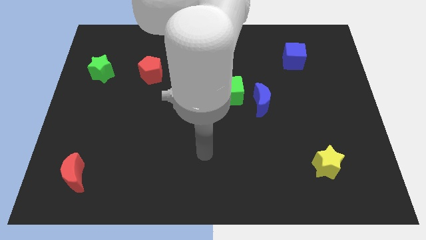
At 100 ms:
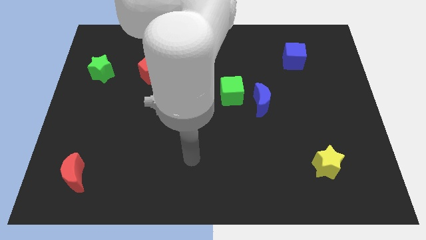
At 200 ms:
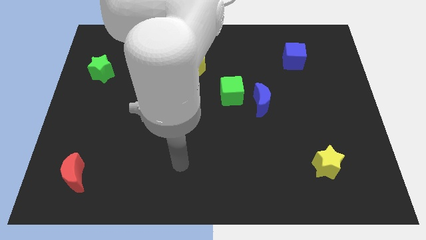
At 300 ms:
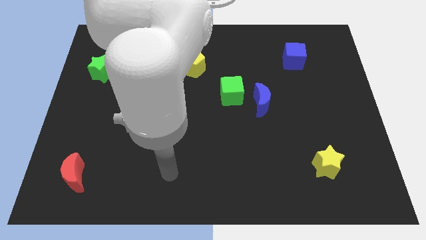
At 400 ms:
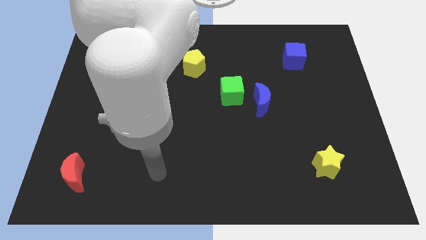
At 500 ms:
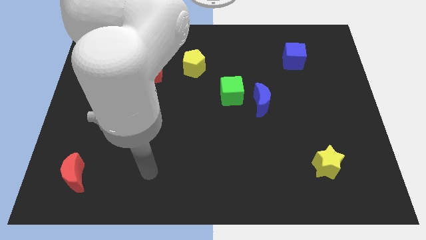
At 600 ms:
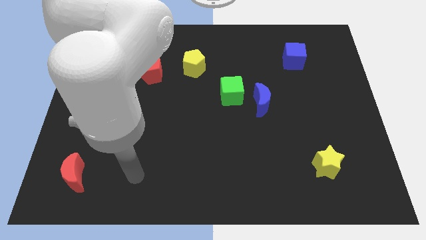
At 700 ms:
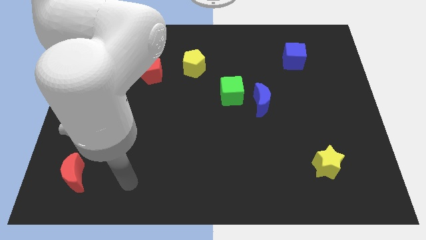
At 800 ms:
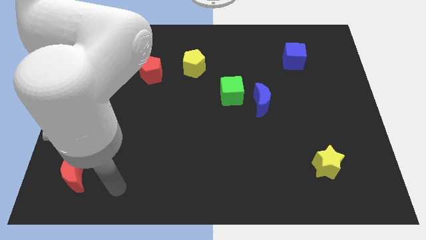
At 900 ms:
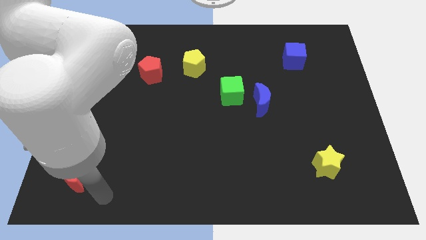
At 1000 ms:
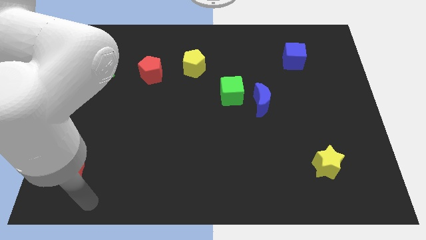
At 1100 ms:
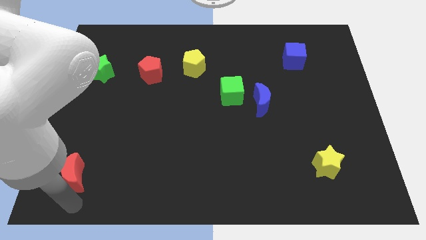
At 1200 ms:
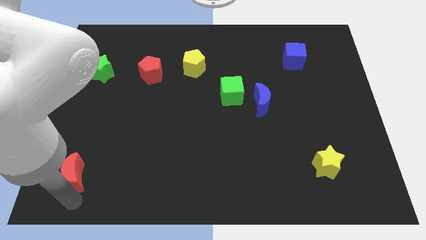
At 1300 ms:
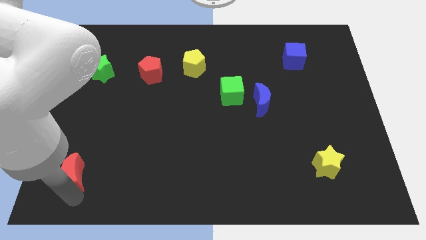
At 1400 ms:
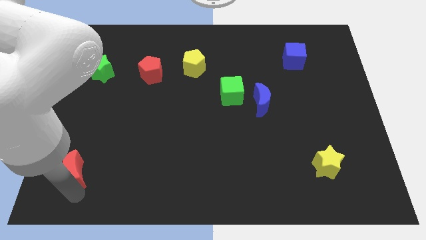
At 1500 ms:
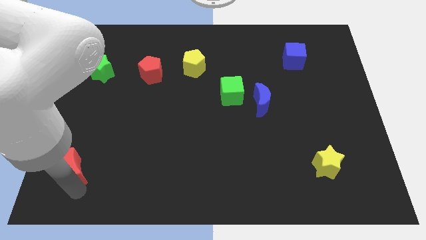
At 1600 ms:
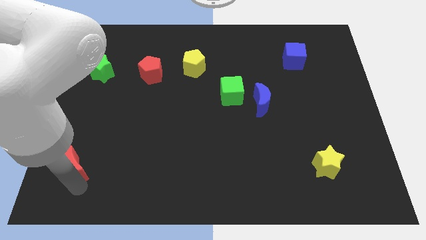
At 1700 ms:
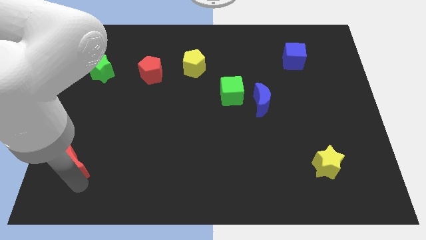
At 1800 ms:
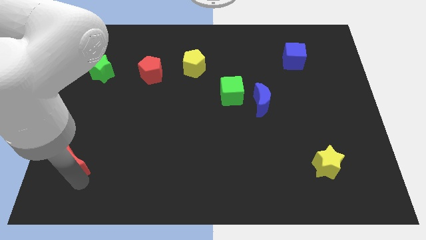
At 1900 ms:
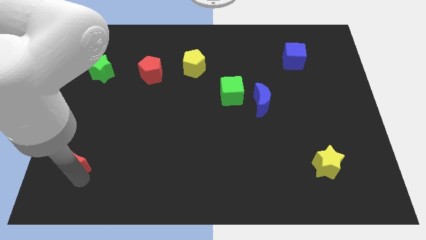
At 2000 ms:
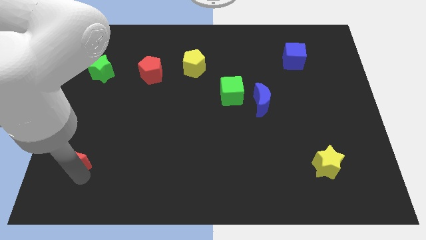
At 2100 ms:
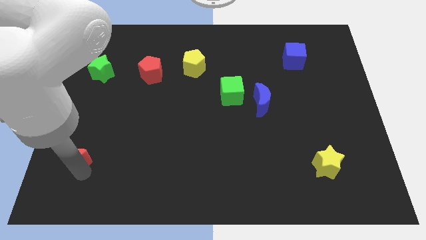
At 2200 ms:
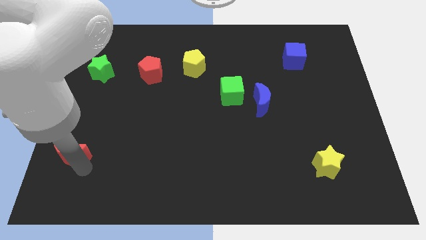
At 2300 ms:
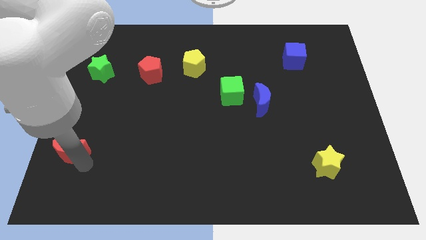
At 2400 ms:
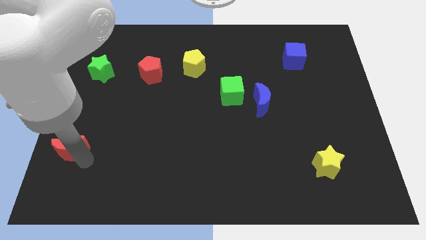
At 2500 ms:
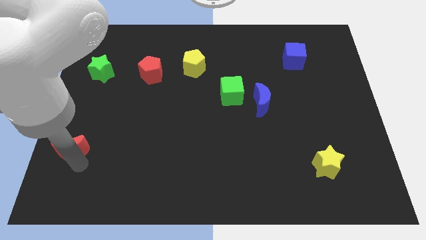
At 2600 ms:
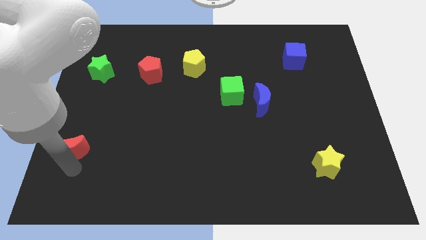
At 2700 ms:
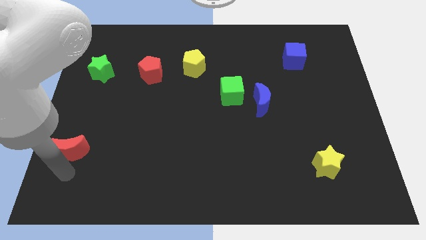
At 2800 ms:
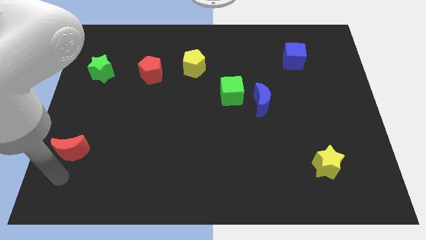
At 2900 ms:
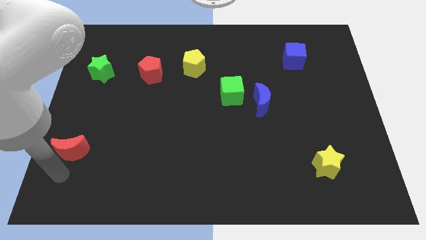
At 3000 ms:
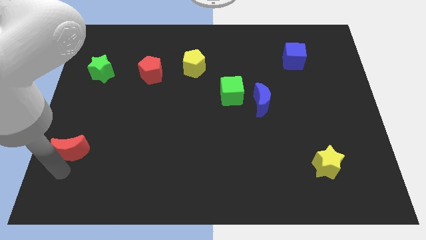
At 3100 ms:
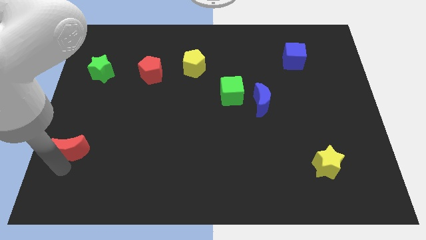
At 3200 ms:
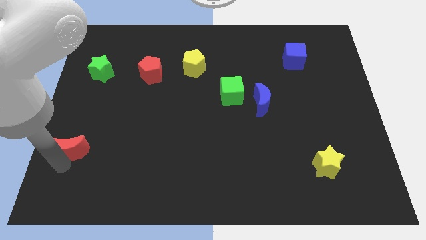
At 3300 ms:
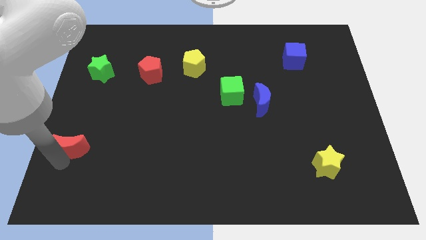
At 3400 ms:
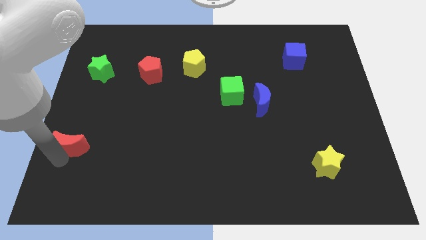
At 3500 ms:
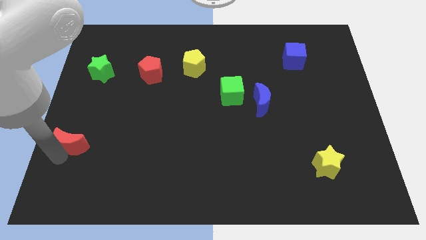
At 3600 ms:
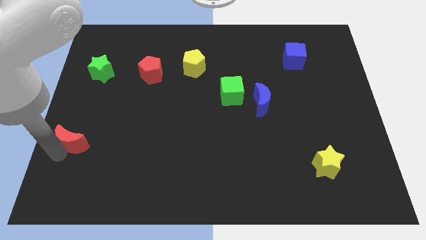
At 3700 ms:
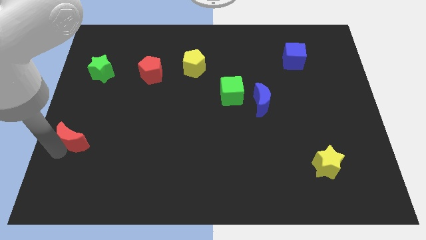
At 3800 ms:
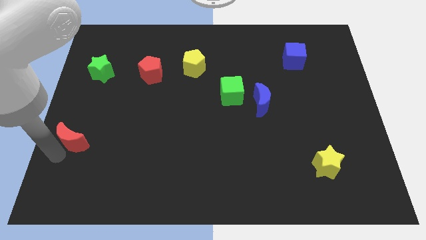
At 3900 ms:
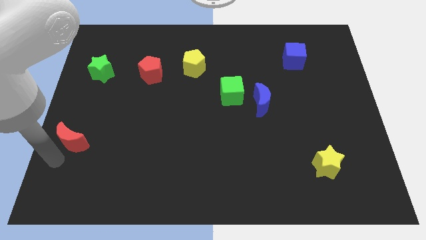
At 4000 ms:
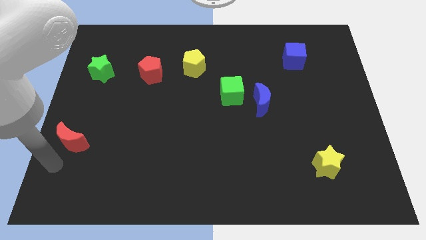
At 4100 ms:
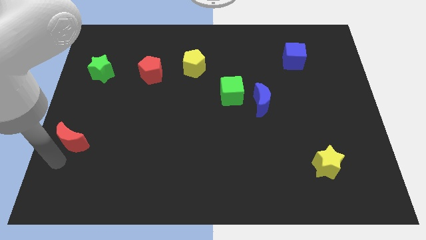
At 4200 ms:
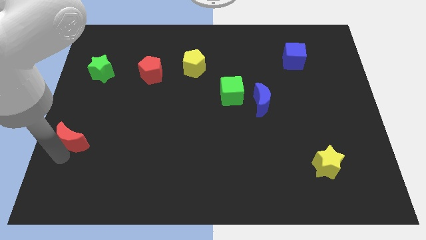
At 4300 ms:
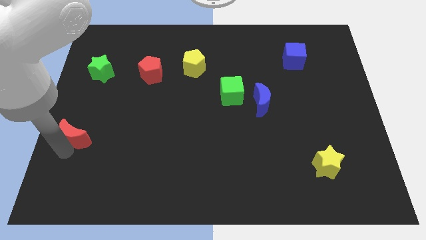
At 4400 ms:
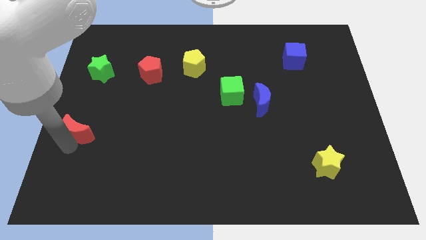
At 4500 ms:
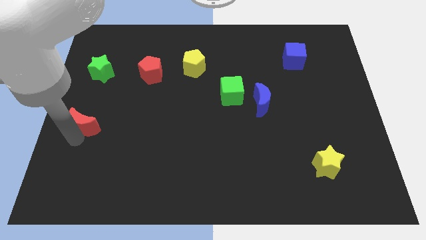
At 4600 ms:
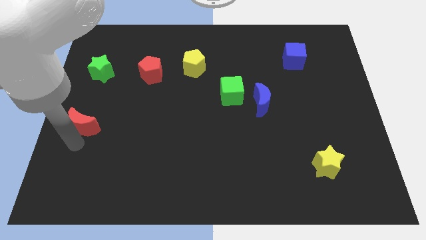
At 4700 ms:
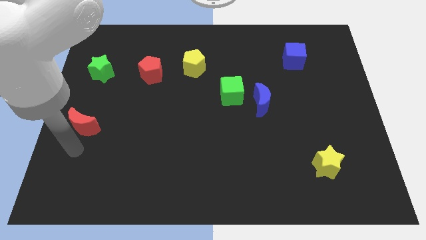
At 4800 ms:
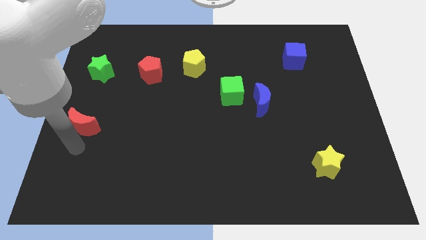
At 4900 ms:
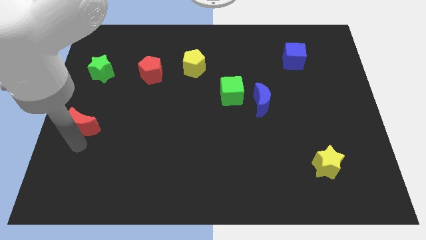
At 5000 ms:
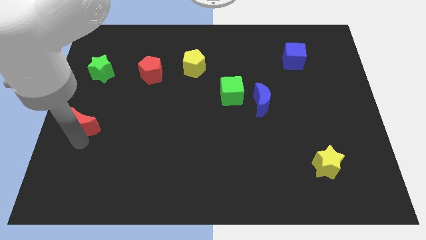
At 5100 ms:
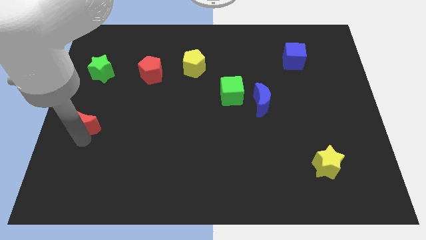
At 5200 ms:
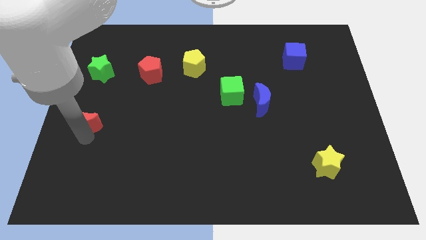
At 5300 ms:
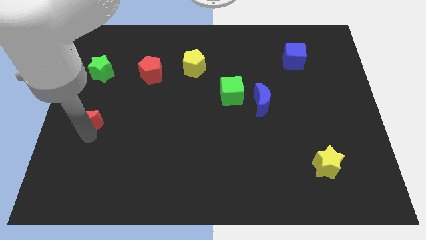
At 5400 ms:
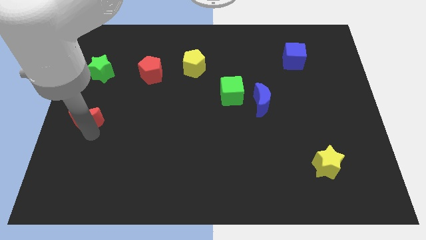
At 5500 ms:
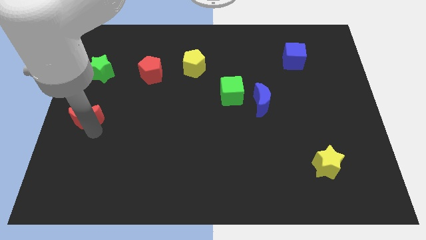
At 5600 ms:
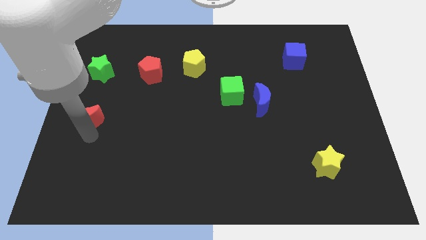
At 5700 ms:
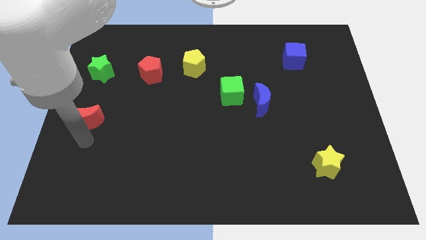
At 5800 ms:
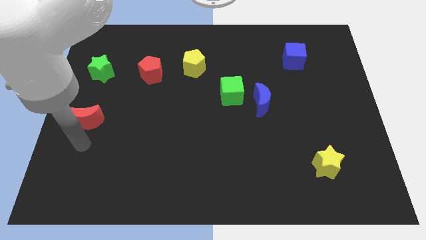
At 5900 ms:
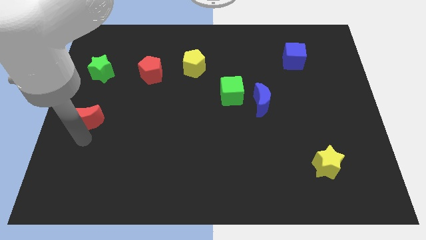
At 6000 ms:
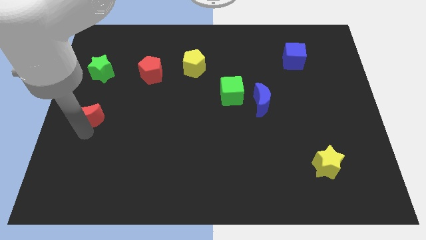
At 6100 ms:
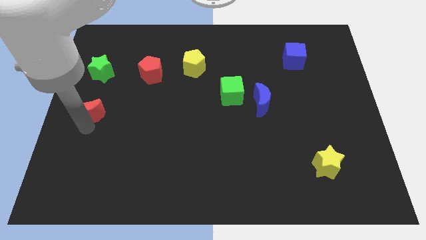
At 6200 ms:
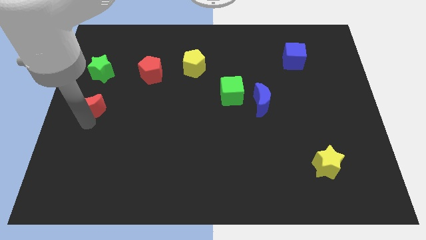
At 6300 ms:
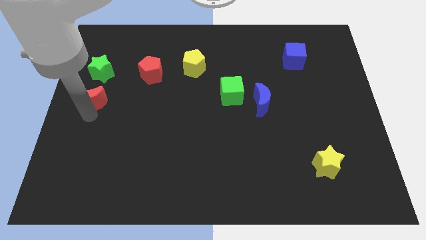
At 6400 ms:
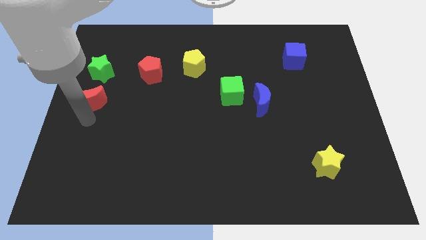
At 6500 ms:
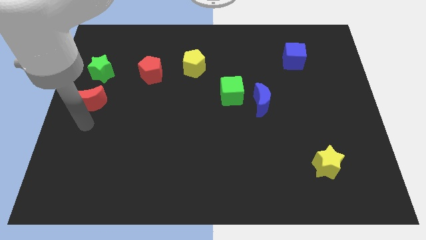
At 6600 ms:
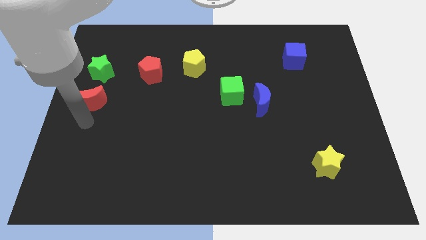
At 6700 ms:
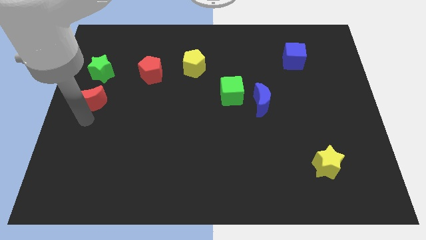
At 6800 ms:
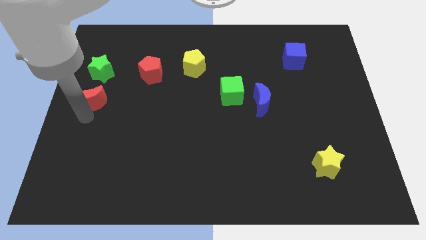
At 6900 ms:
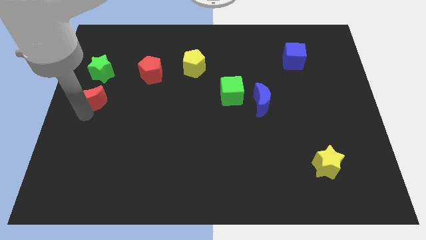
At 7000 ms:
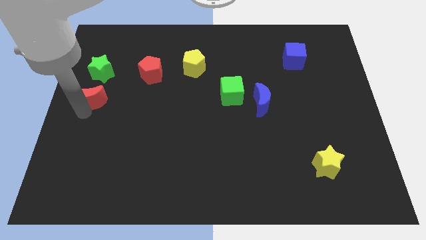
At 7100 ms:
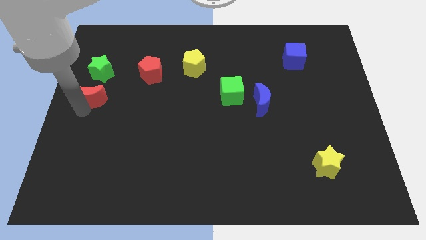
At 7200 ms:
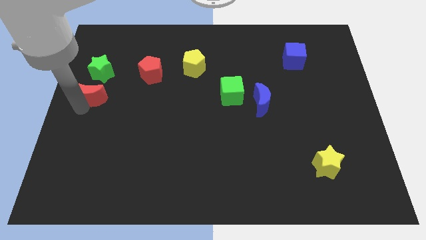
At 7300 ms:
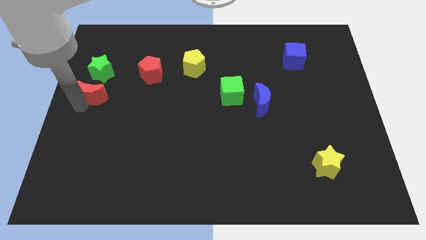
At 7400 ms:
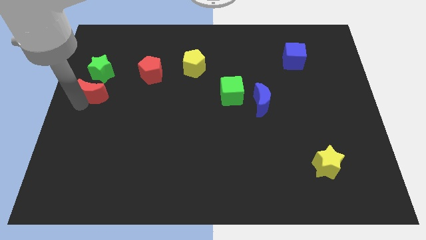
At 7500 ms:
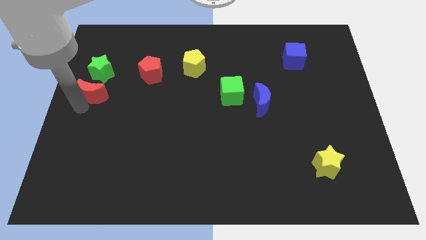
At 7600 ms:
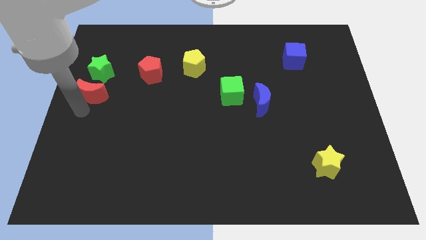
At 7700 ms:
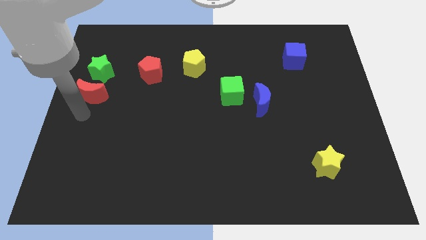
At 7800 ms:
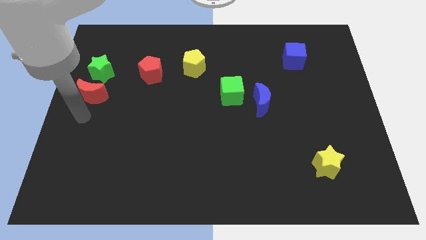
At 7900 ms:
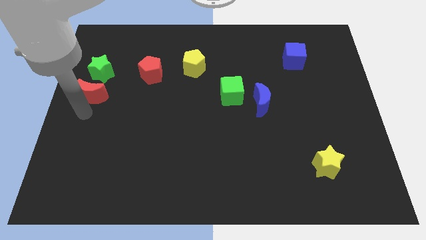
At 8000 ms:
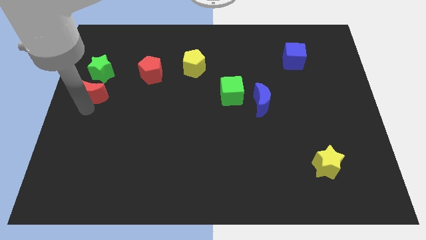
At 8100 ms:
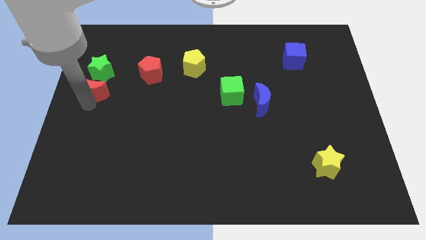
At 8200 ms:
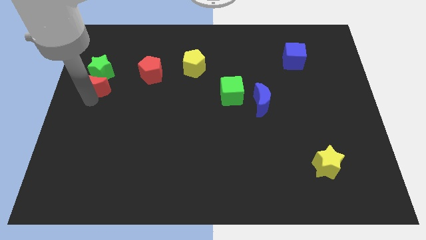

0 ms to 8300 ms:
move the red moon towards the green star
